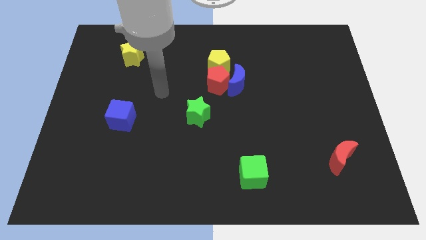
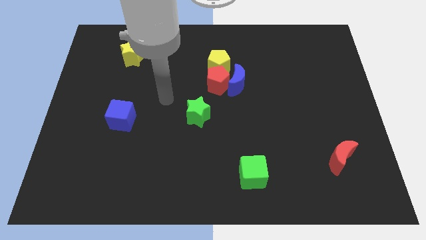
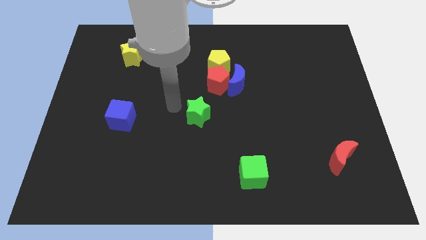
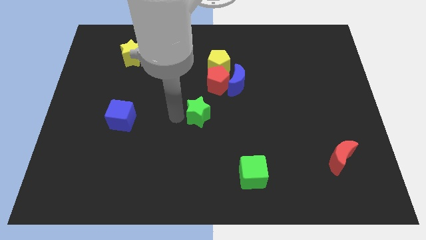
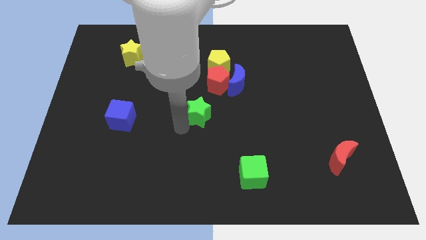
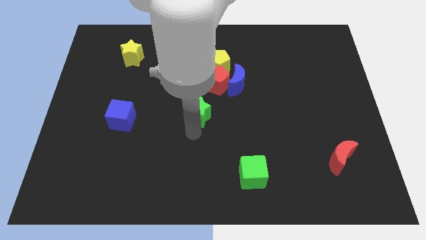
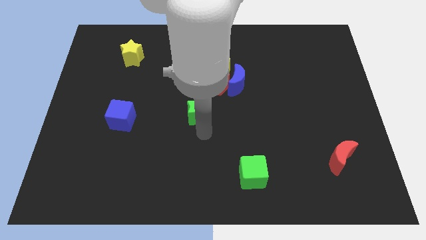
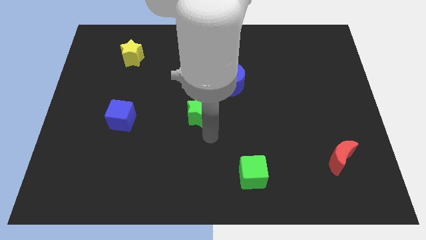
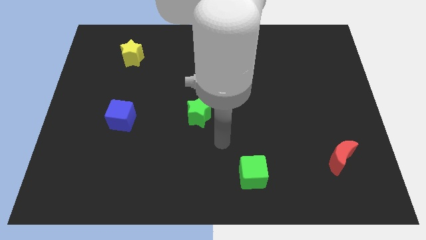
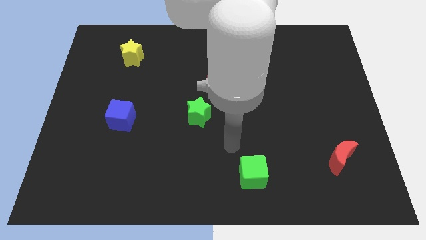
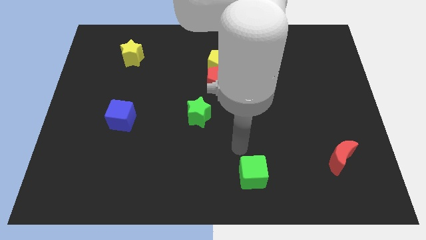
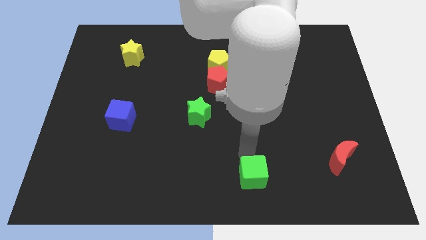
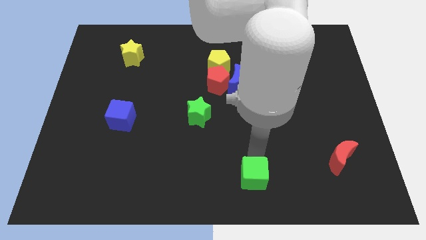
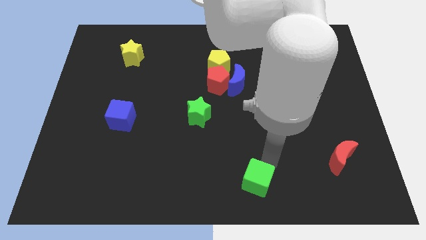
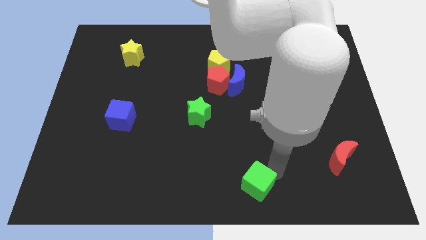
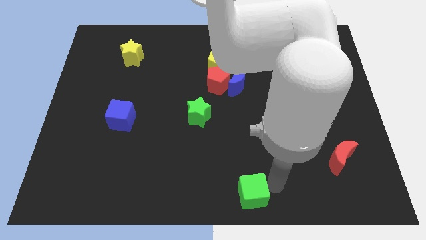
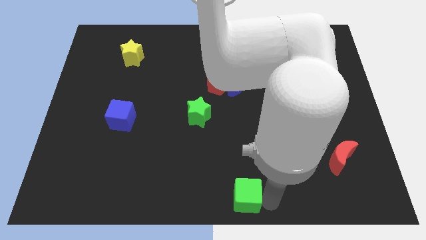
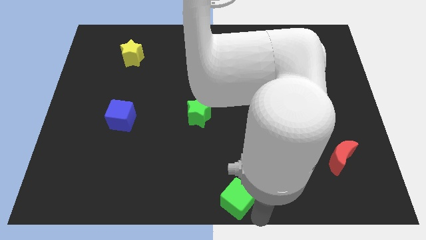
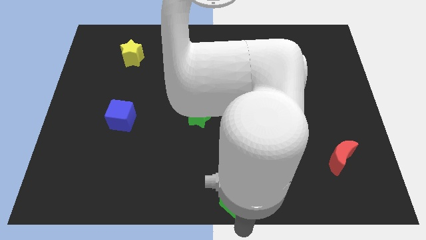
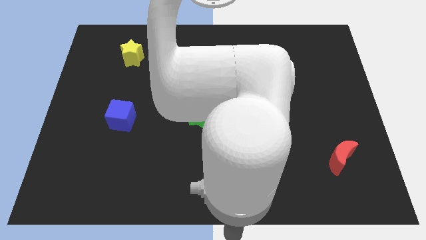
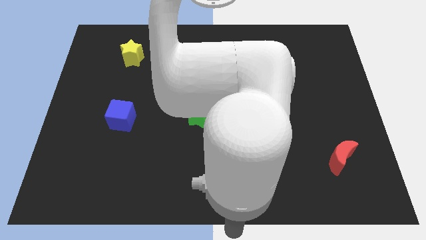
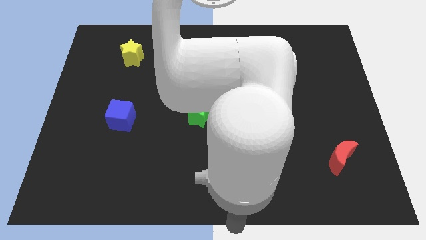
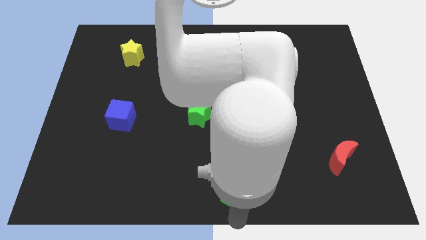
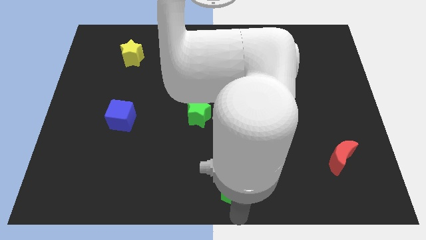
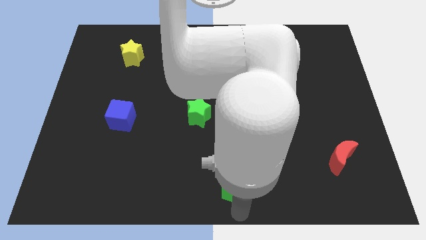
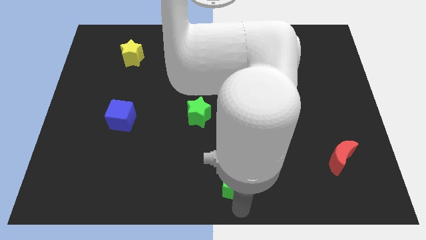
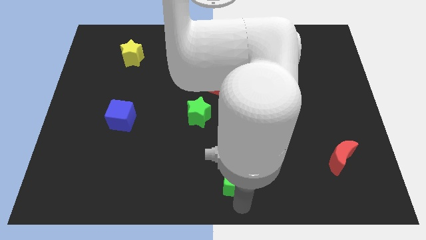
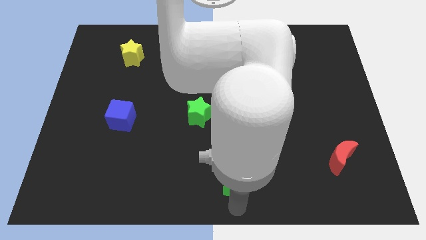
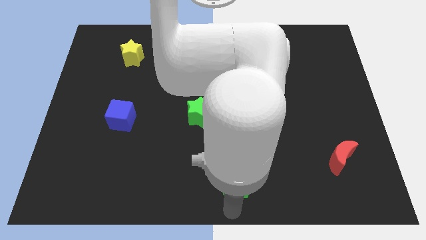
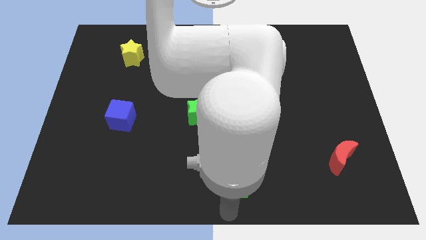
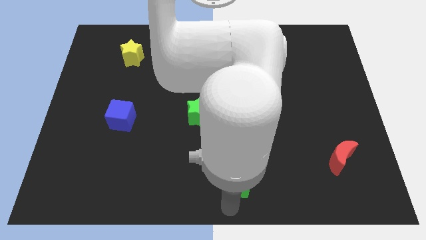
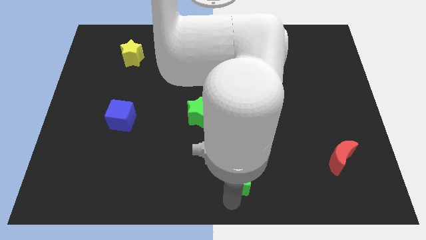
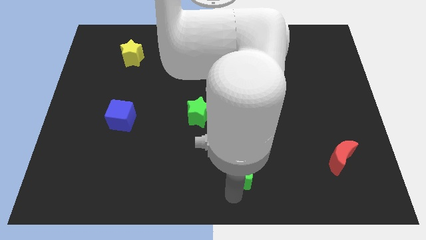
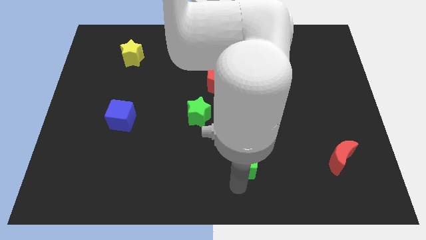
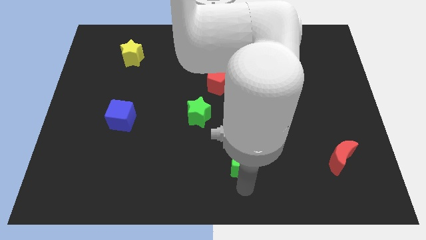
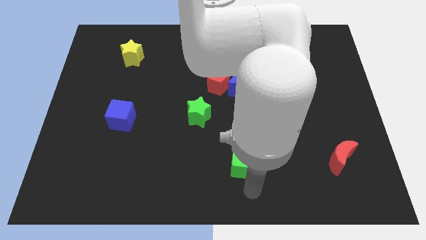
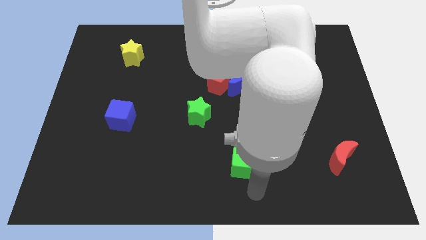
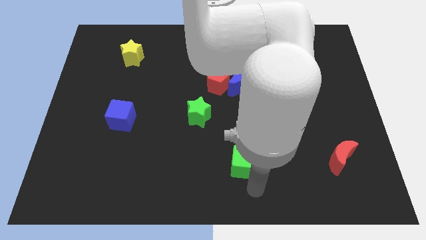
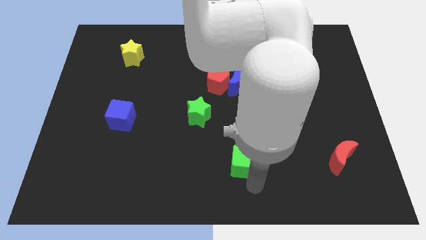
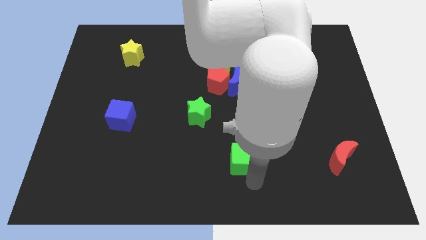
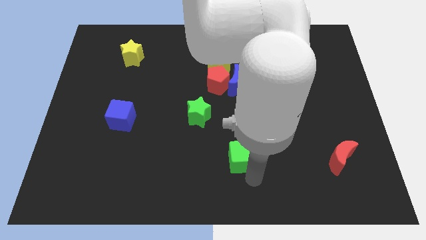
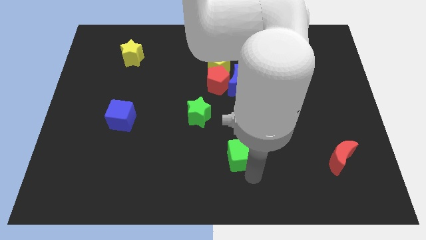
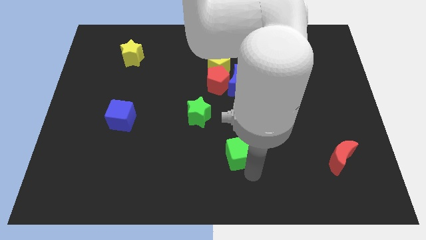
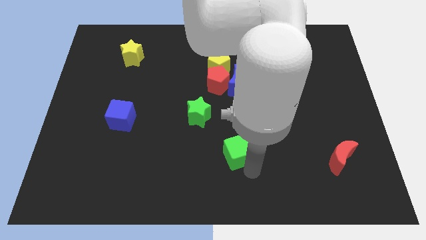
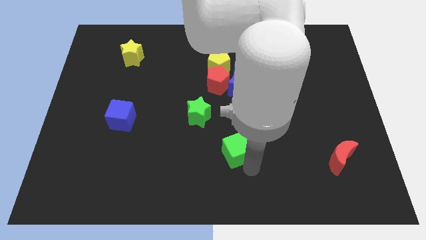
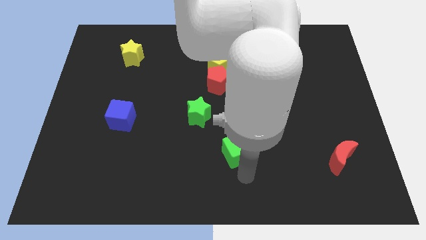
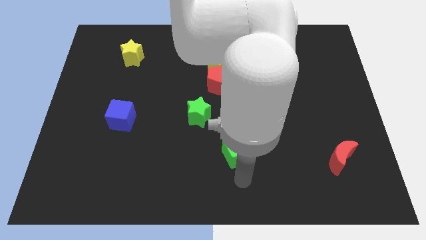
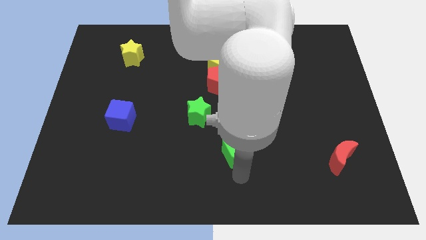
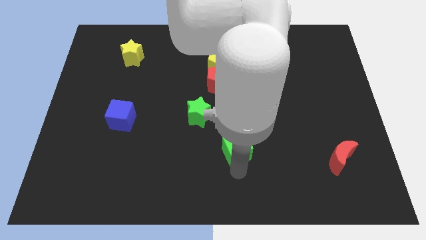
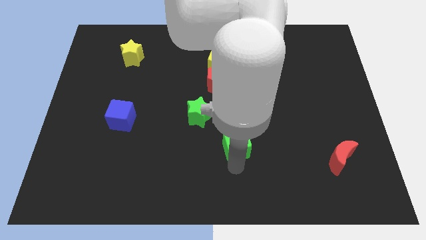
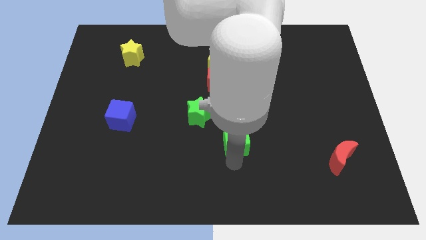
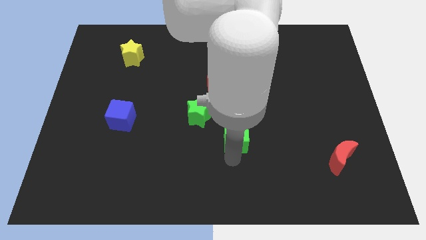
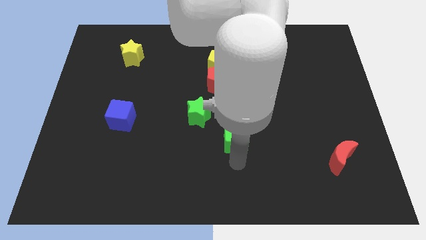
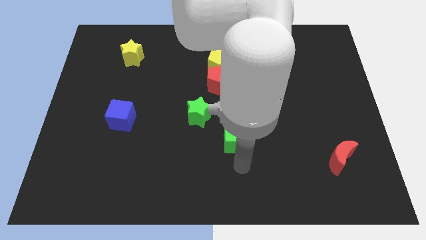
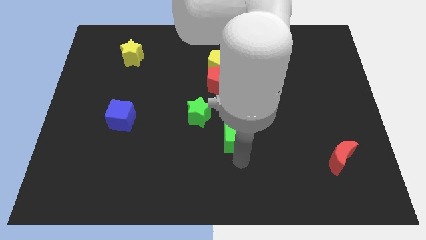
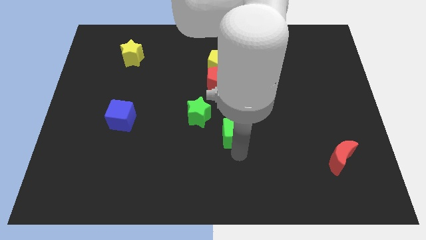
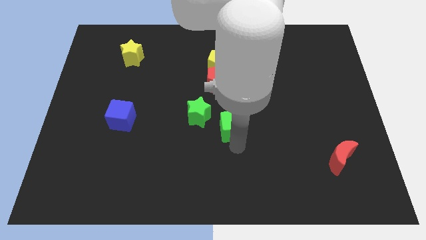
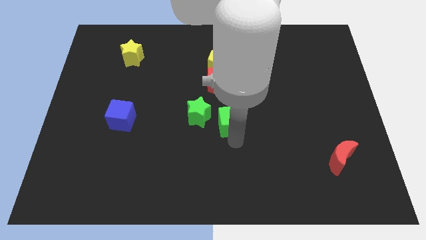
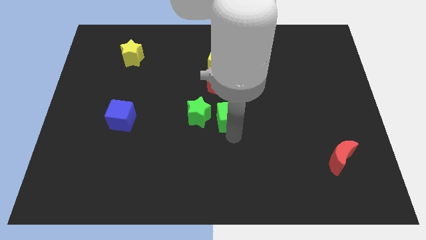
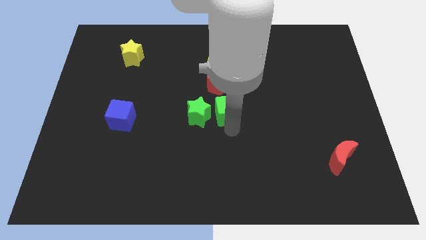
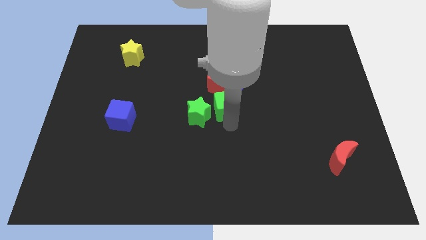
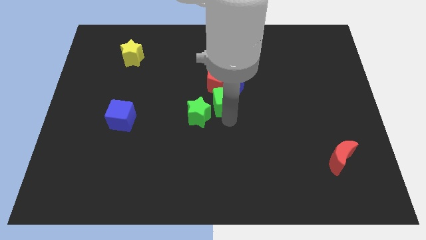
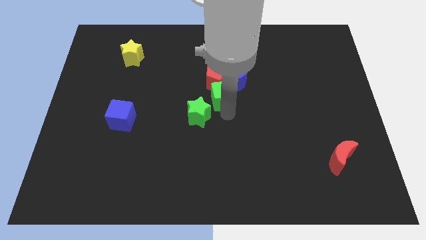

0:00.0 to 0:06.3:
slide the green cube close to the red pentagon

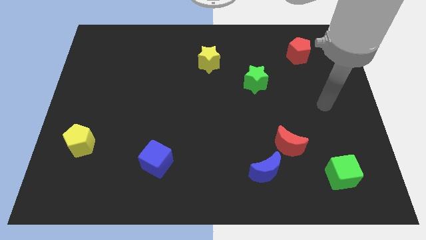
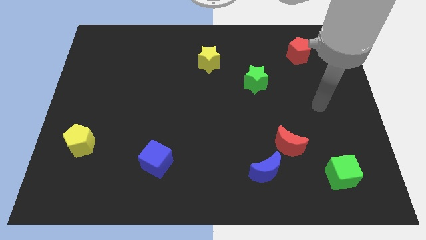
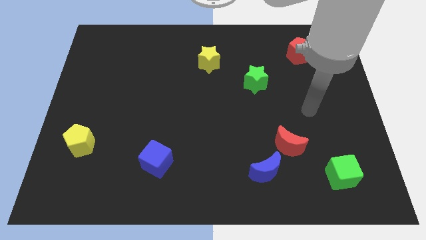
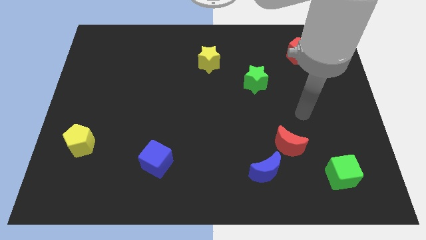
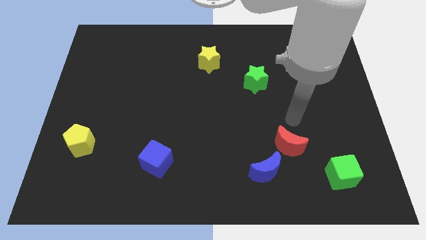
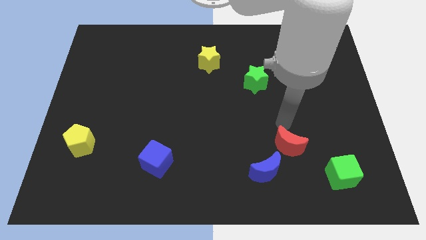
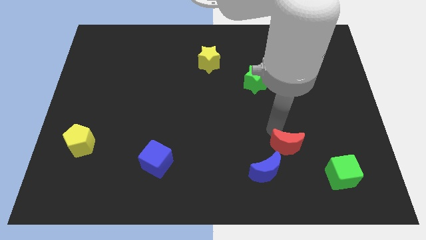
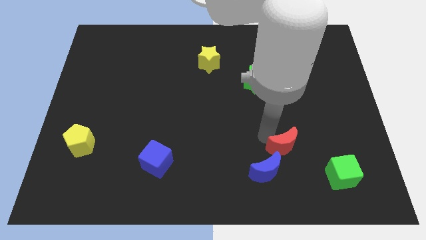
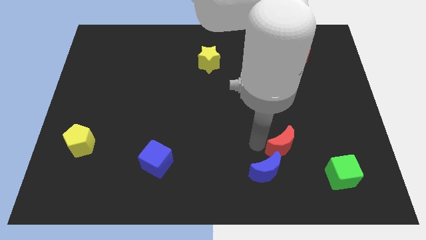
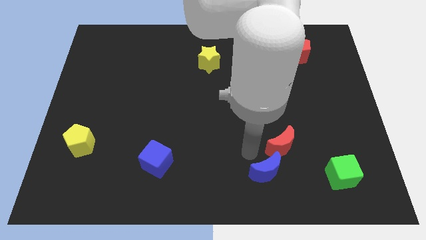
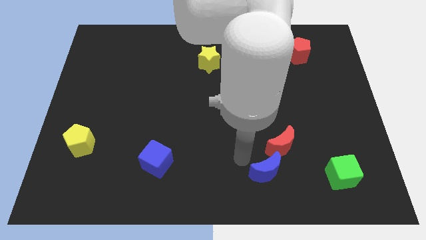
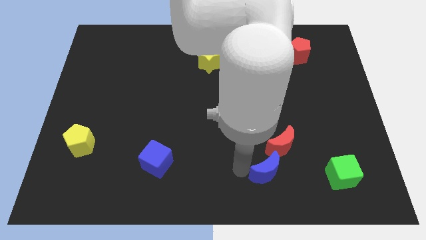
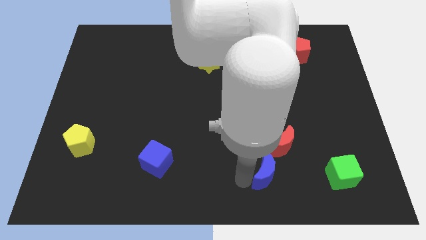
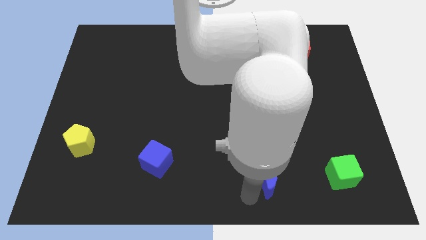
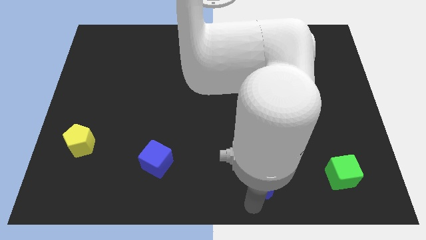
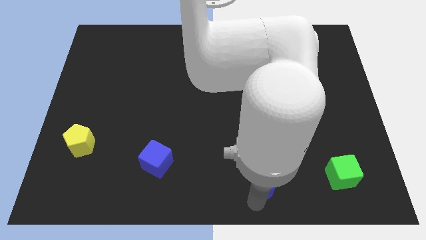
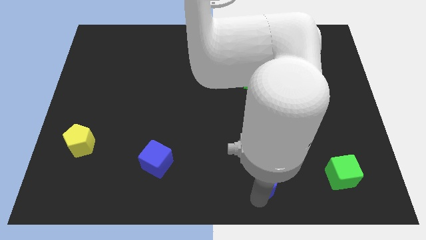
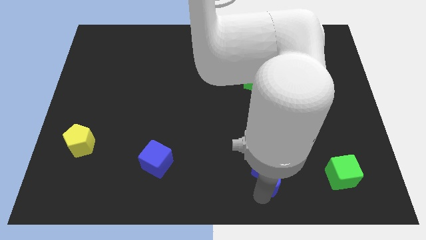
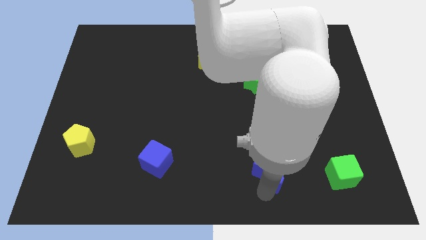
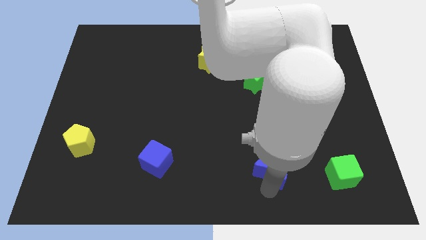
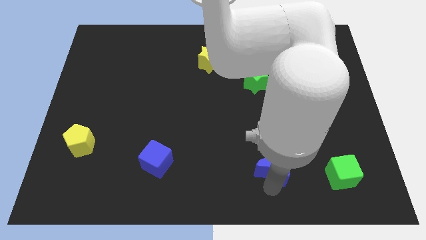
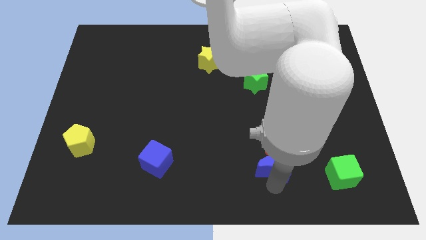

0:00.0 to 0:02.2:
slide the blue moon towards the red moon
